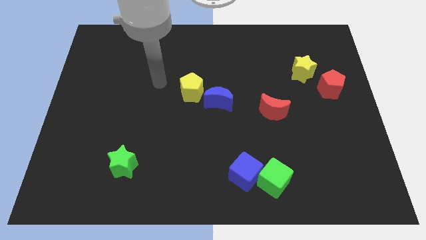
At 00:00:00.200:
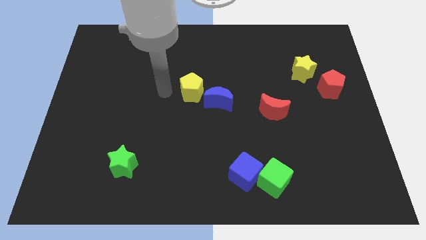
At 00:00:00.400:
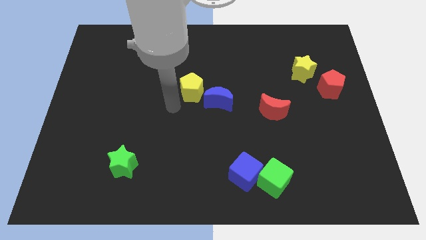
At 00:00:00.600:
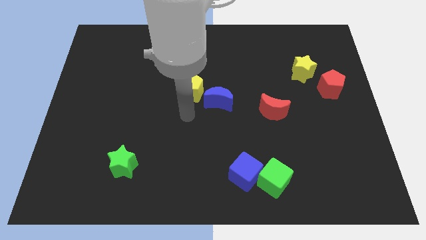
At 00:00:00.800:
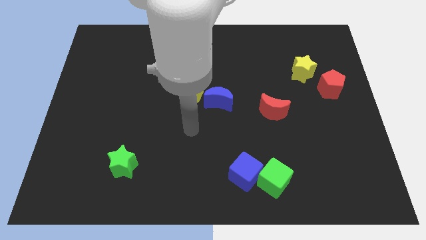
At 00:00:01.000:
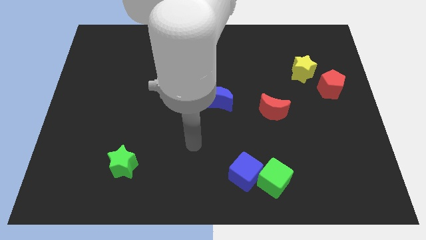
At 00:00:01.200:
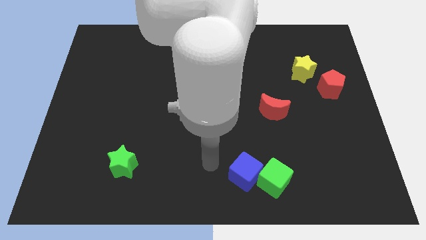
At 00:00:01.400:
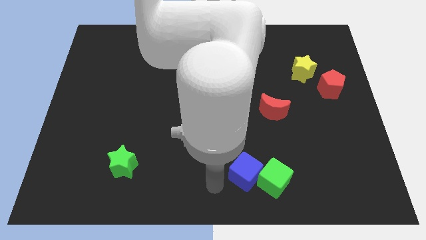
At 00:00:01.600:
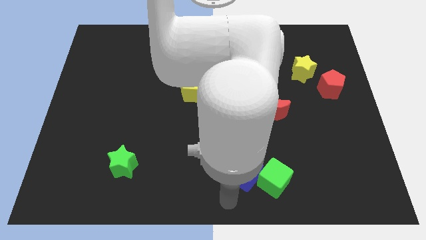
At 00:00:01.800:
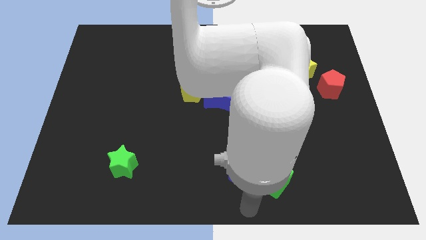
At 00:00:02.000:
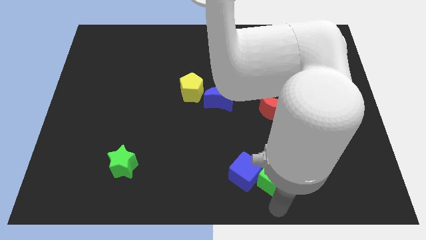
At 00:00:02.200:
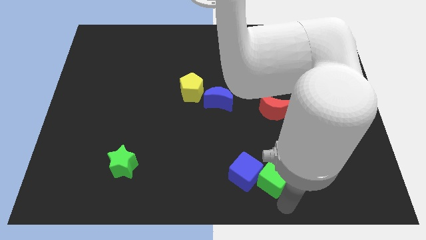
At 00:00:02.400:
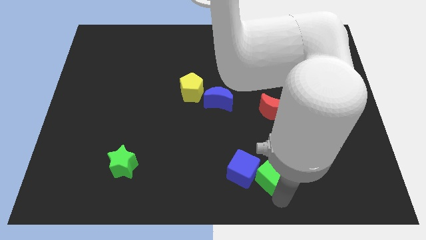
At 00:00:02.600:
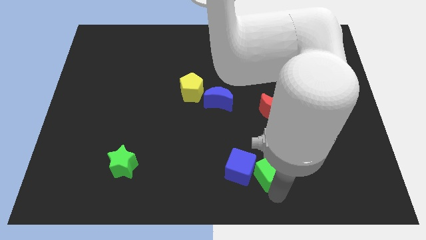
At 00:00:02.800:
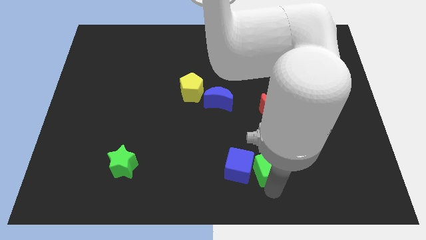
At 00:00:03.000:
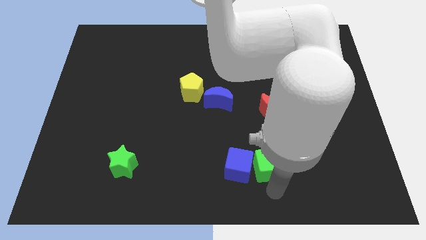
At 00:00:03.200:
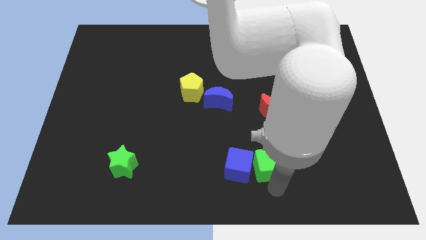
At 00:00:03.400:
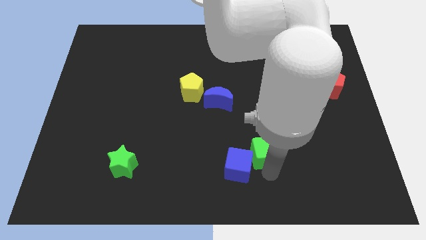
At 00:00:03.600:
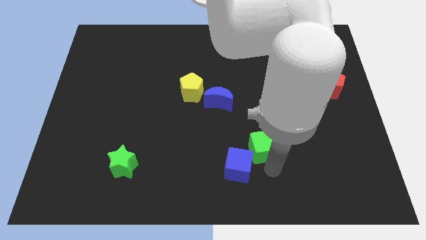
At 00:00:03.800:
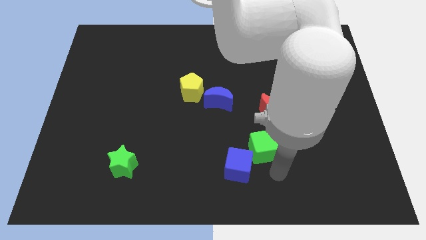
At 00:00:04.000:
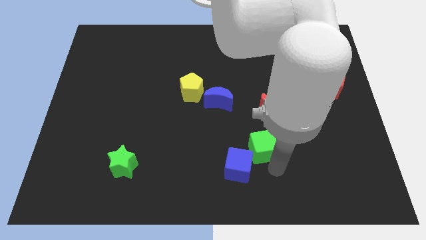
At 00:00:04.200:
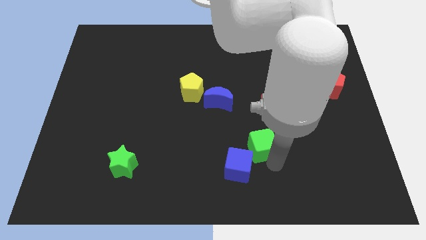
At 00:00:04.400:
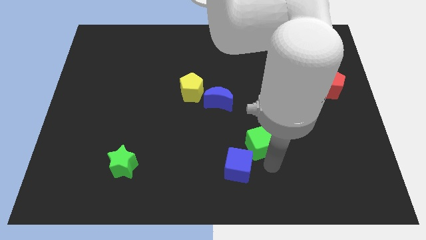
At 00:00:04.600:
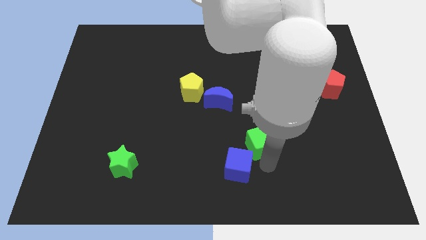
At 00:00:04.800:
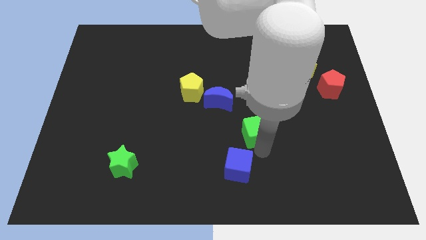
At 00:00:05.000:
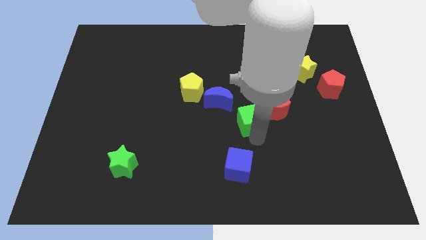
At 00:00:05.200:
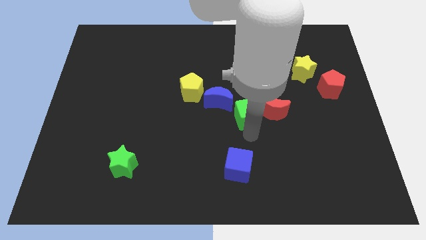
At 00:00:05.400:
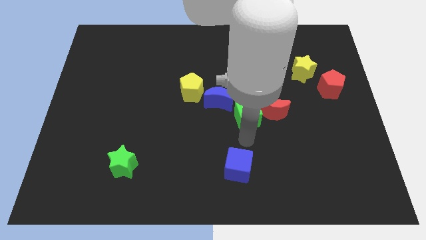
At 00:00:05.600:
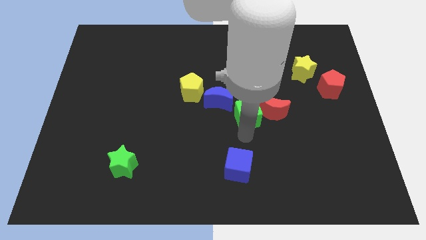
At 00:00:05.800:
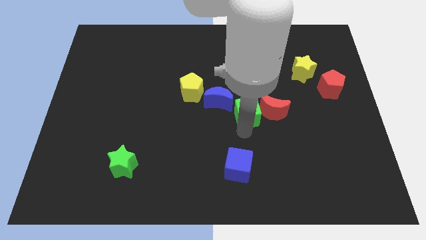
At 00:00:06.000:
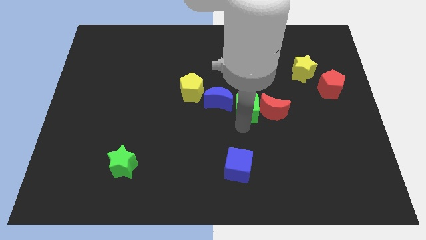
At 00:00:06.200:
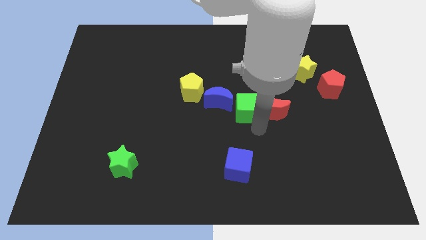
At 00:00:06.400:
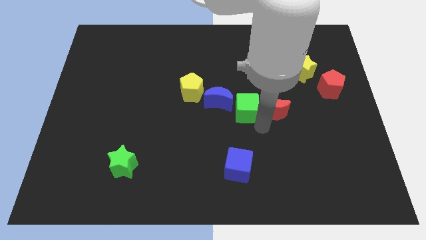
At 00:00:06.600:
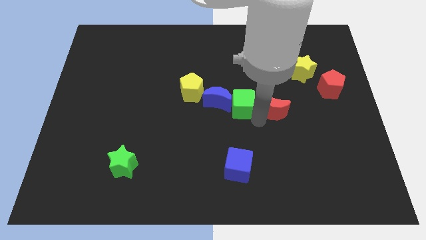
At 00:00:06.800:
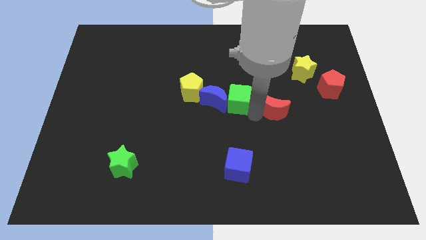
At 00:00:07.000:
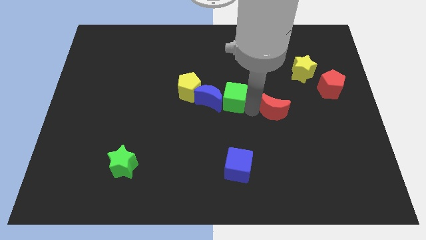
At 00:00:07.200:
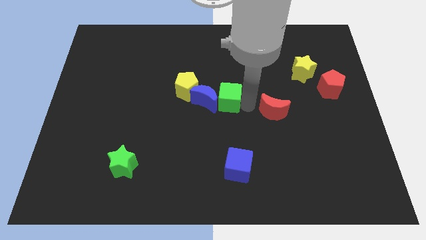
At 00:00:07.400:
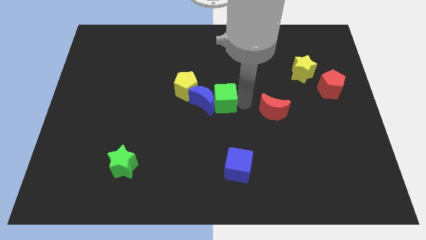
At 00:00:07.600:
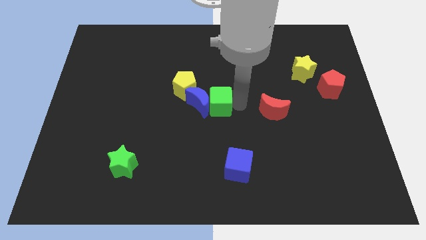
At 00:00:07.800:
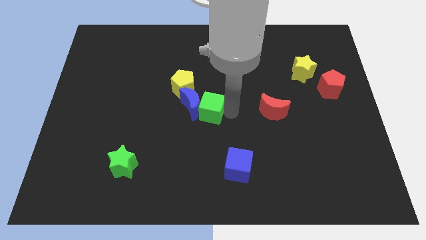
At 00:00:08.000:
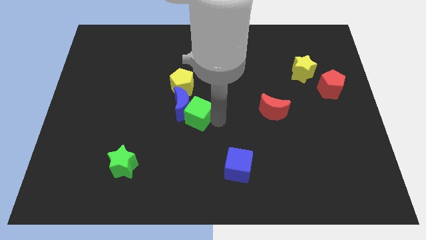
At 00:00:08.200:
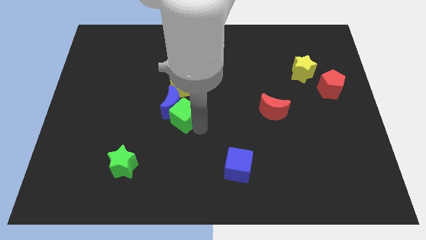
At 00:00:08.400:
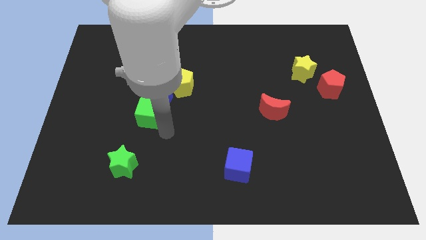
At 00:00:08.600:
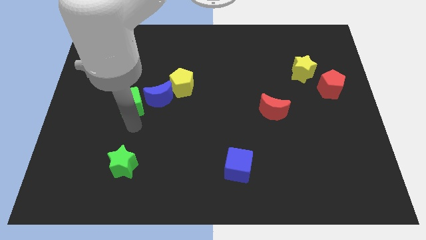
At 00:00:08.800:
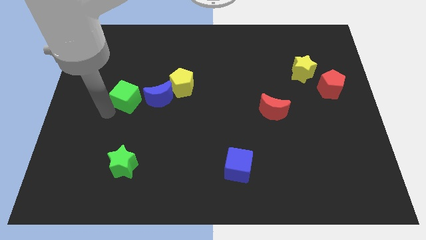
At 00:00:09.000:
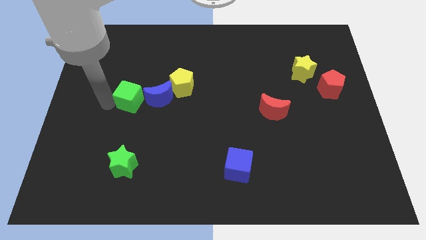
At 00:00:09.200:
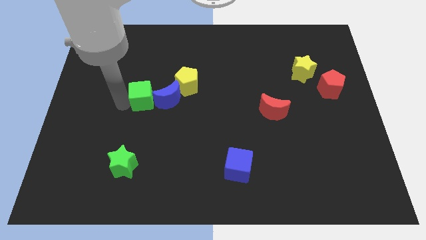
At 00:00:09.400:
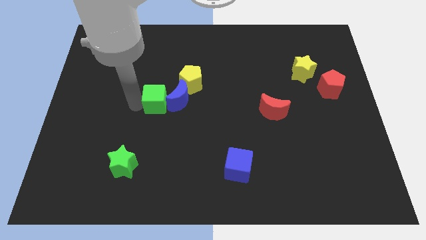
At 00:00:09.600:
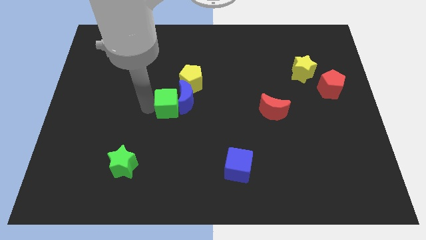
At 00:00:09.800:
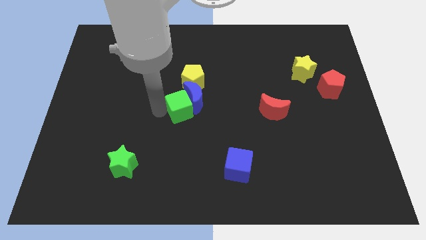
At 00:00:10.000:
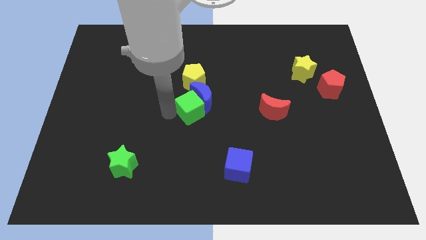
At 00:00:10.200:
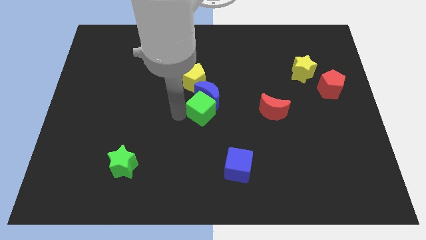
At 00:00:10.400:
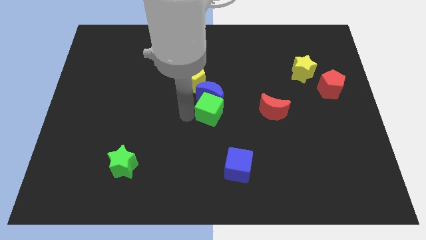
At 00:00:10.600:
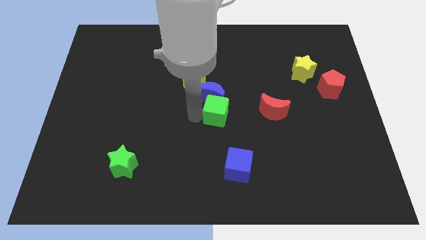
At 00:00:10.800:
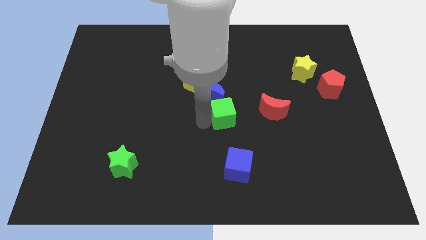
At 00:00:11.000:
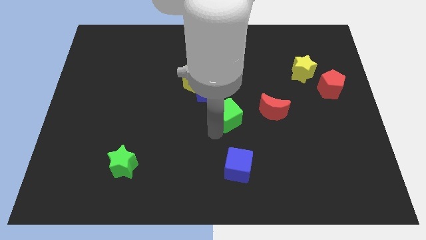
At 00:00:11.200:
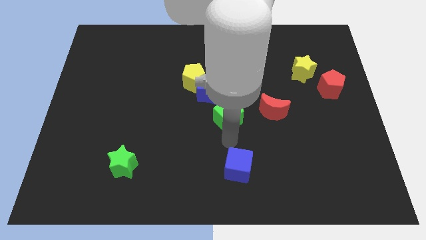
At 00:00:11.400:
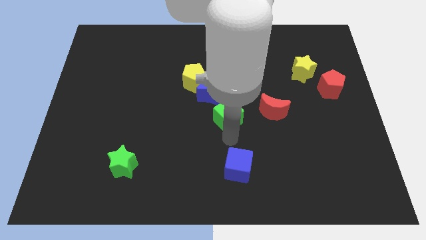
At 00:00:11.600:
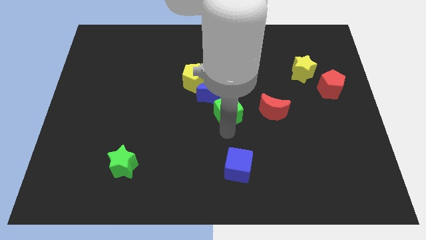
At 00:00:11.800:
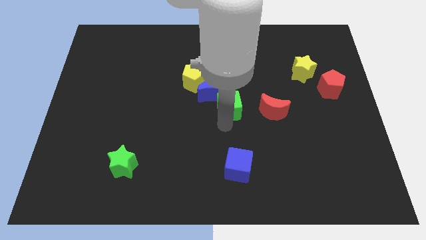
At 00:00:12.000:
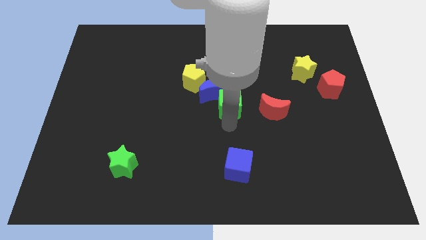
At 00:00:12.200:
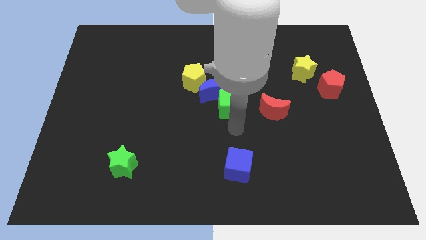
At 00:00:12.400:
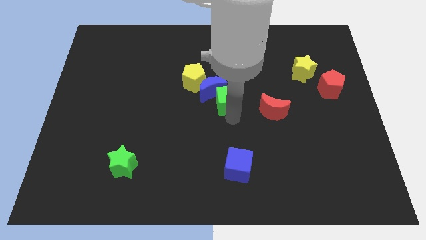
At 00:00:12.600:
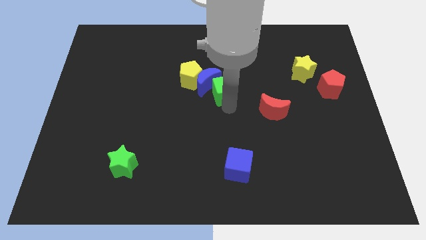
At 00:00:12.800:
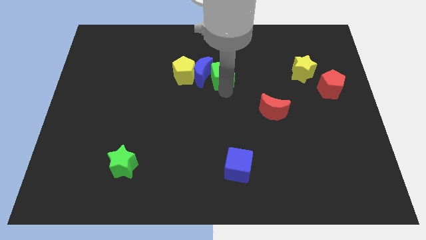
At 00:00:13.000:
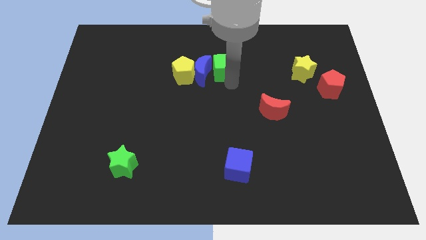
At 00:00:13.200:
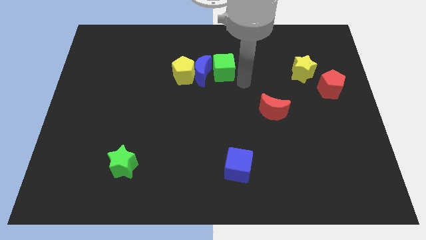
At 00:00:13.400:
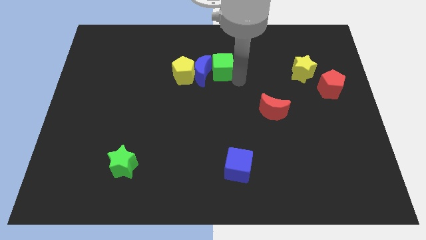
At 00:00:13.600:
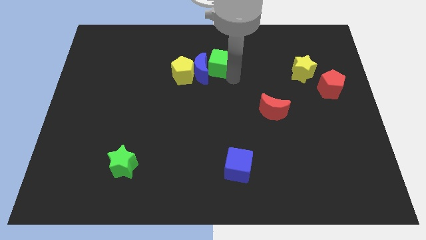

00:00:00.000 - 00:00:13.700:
move the green cube diagonally up and to the right of the yellow pentagon

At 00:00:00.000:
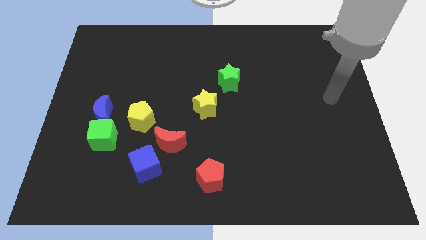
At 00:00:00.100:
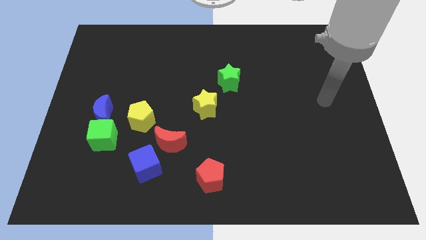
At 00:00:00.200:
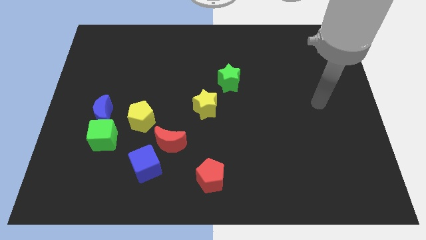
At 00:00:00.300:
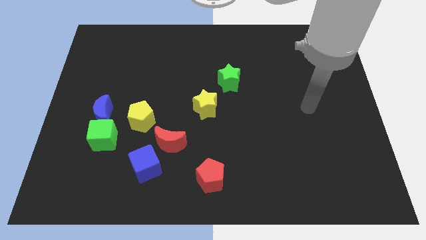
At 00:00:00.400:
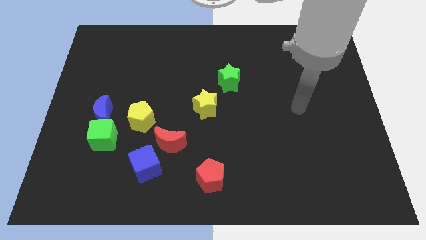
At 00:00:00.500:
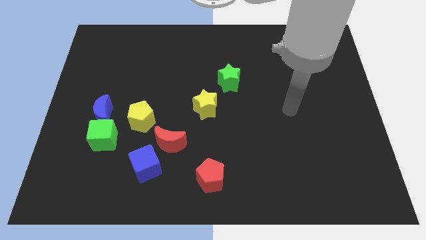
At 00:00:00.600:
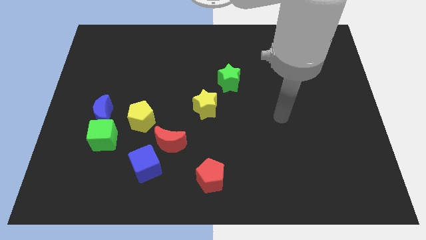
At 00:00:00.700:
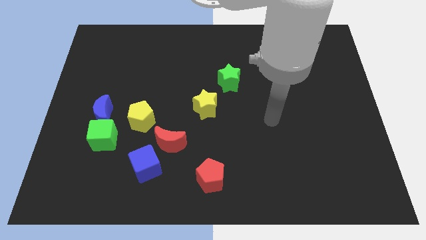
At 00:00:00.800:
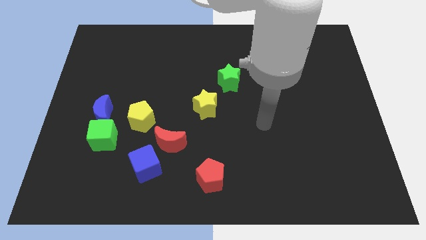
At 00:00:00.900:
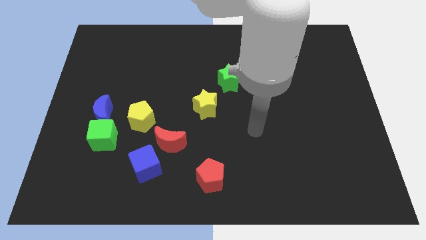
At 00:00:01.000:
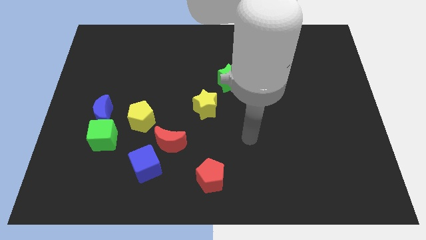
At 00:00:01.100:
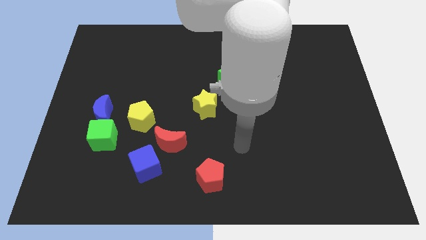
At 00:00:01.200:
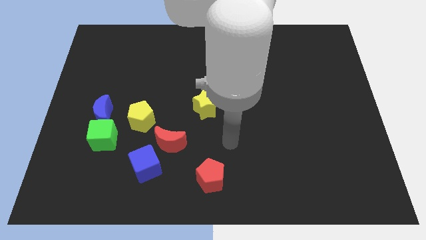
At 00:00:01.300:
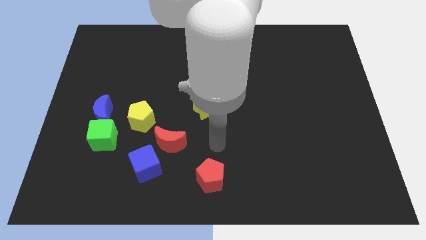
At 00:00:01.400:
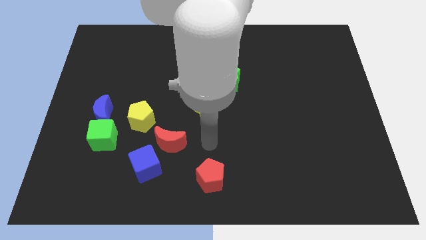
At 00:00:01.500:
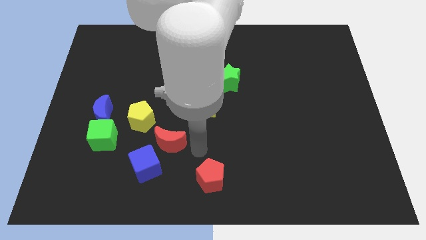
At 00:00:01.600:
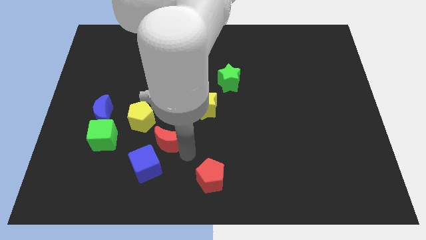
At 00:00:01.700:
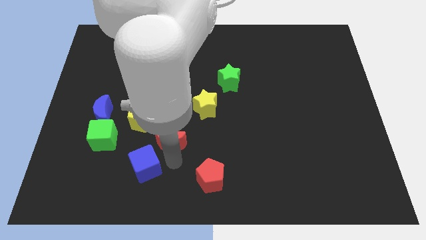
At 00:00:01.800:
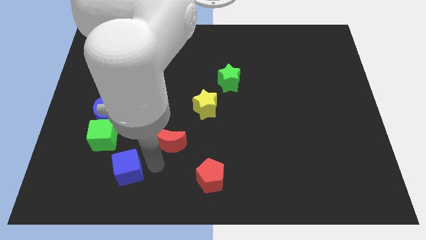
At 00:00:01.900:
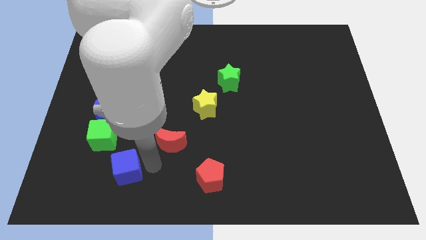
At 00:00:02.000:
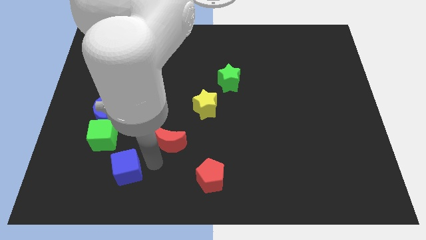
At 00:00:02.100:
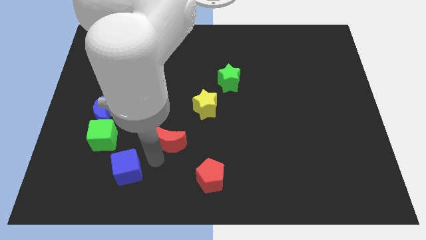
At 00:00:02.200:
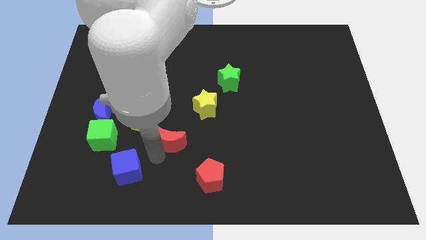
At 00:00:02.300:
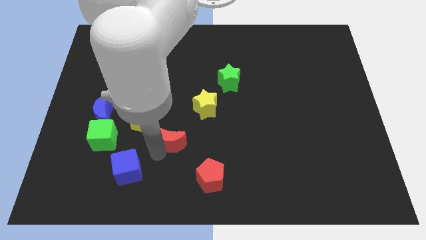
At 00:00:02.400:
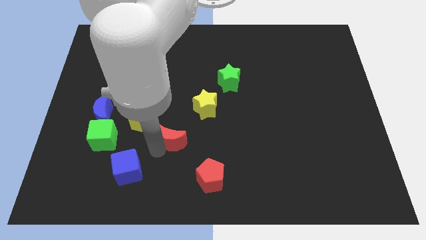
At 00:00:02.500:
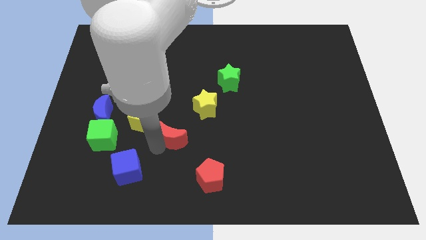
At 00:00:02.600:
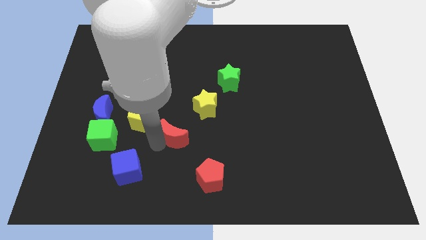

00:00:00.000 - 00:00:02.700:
put the red moon just right of the yellow pentagon
